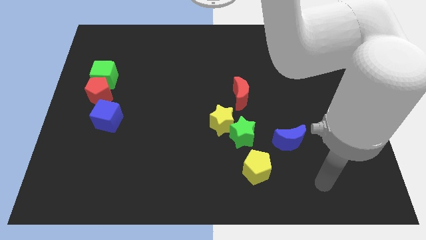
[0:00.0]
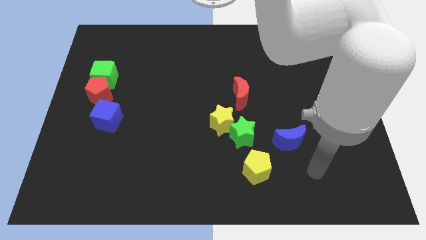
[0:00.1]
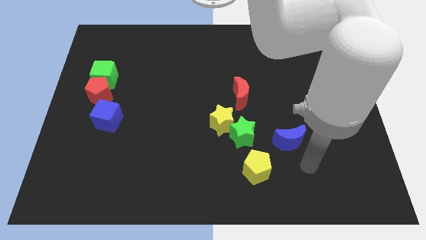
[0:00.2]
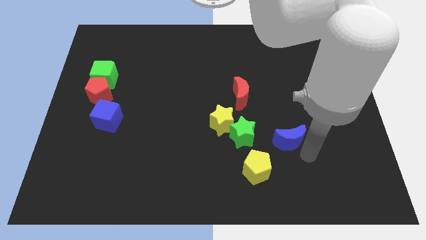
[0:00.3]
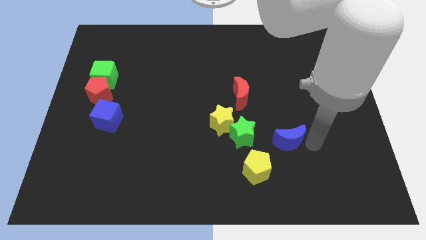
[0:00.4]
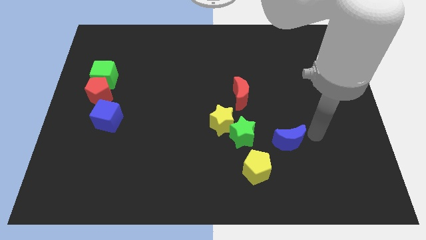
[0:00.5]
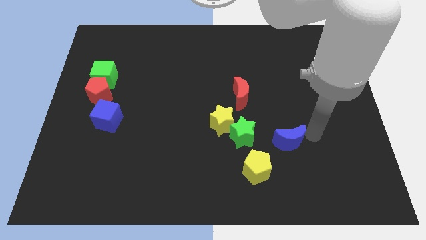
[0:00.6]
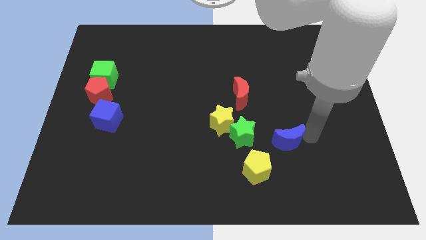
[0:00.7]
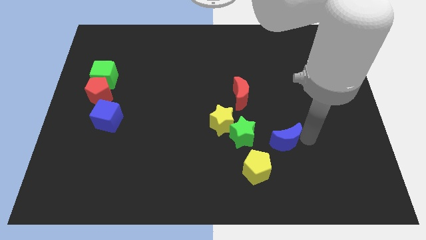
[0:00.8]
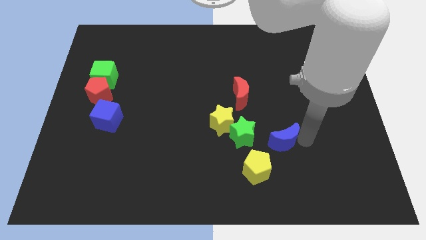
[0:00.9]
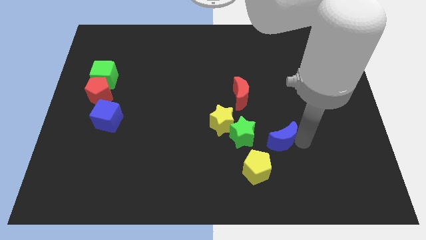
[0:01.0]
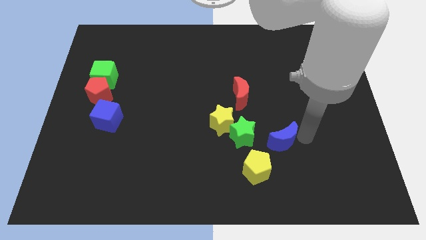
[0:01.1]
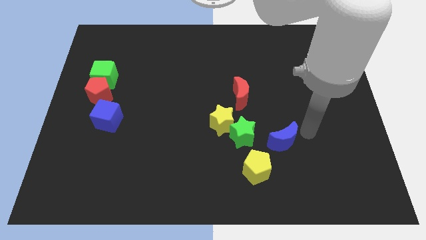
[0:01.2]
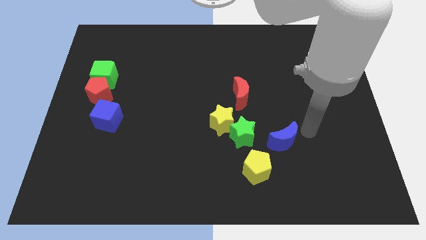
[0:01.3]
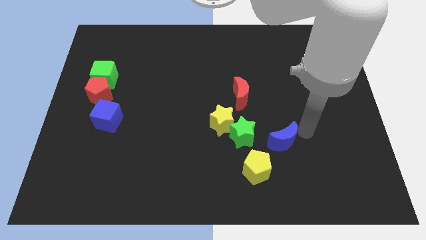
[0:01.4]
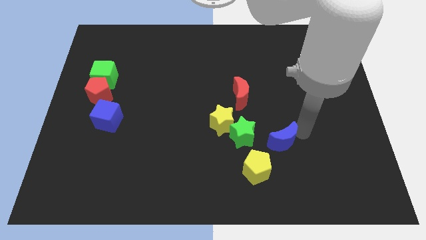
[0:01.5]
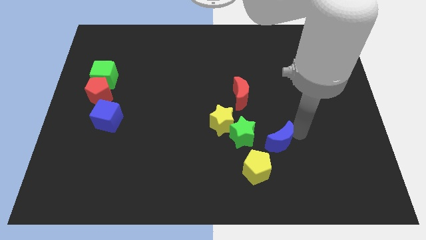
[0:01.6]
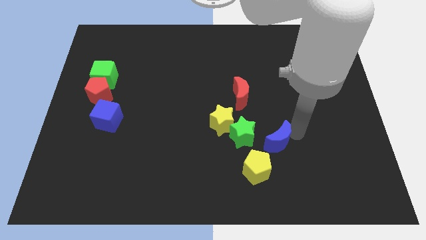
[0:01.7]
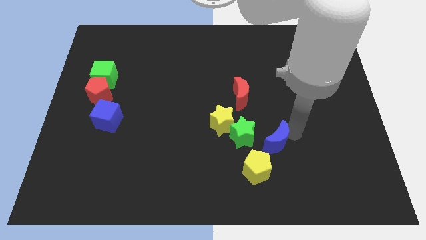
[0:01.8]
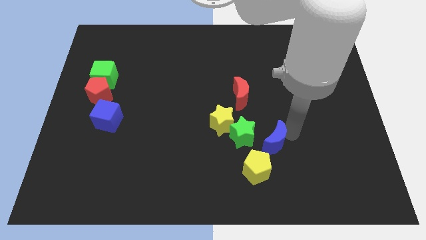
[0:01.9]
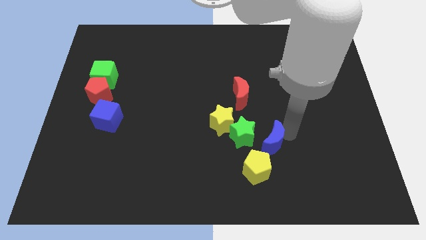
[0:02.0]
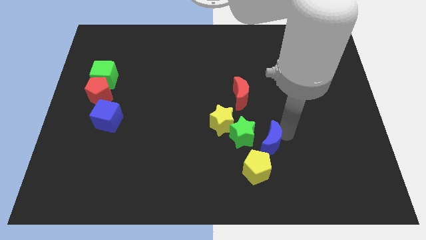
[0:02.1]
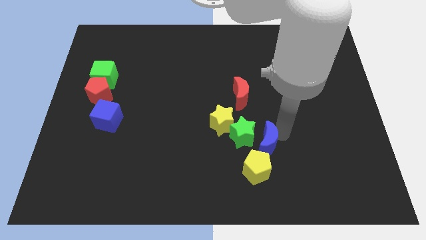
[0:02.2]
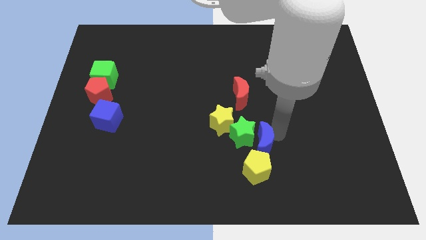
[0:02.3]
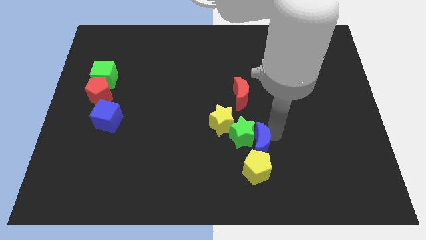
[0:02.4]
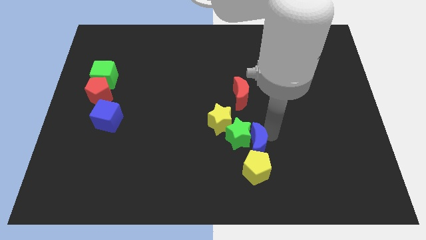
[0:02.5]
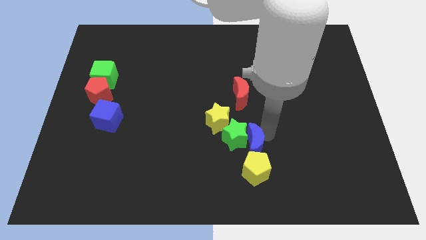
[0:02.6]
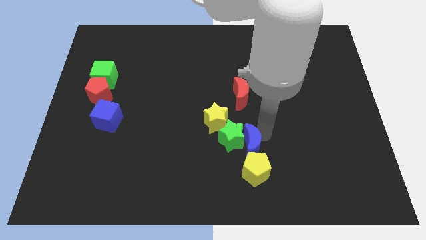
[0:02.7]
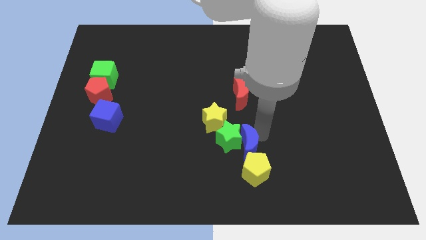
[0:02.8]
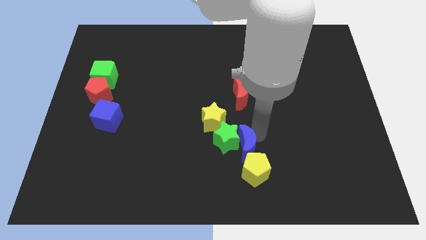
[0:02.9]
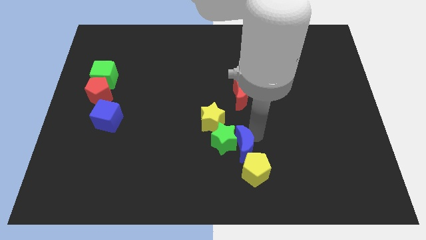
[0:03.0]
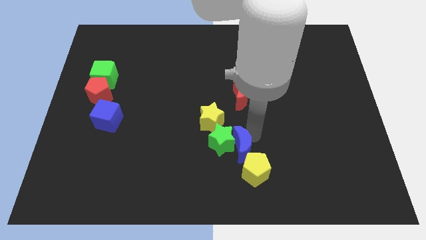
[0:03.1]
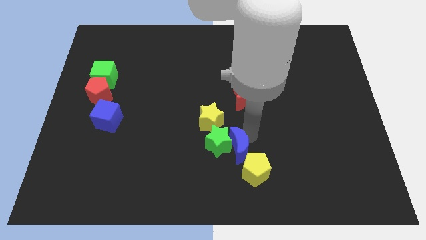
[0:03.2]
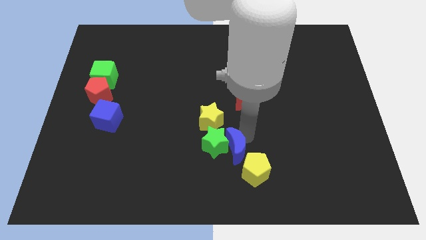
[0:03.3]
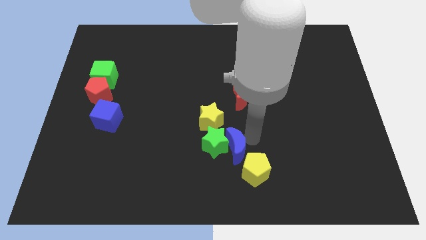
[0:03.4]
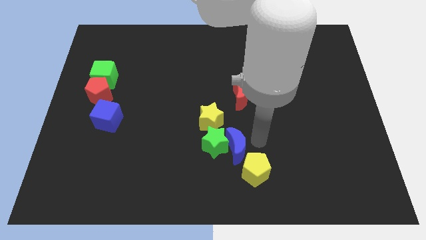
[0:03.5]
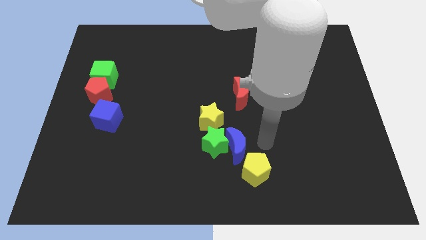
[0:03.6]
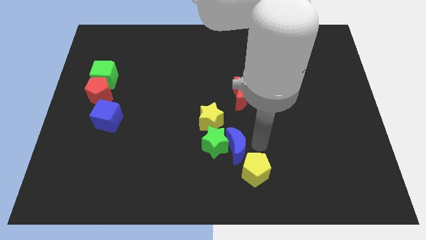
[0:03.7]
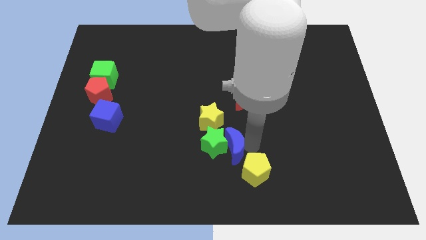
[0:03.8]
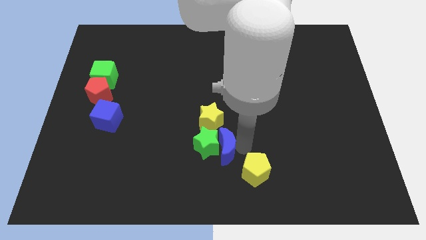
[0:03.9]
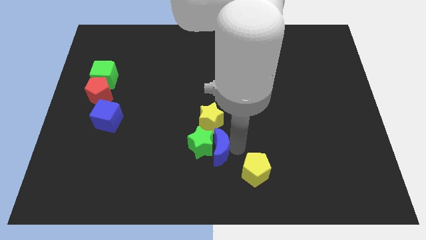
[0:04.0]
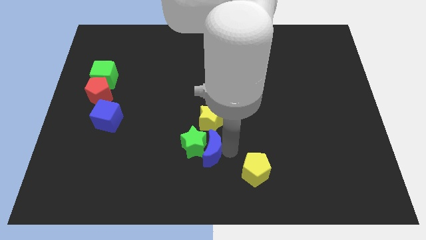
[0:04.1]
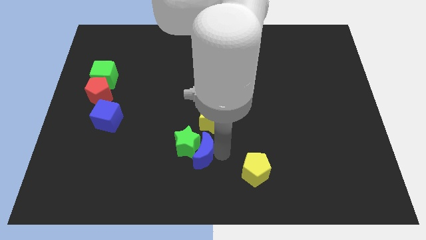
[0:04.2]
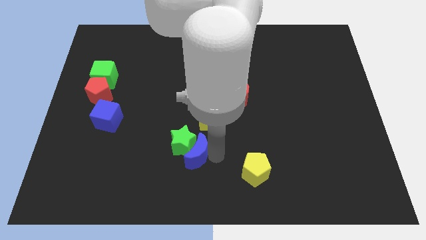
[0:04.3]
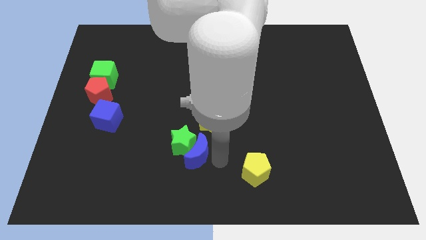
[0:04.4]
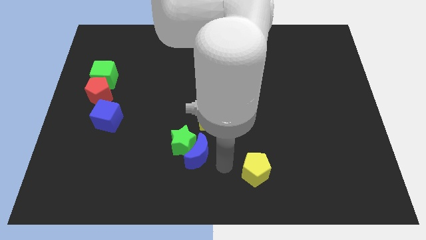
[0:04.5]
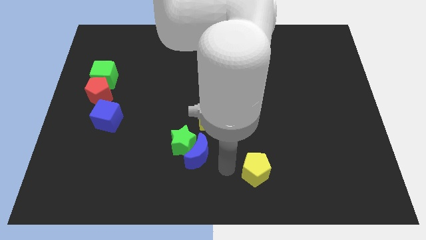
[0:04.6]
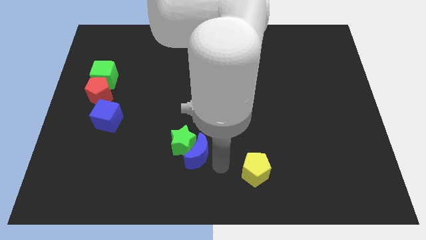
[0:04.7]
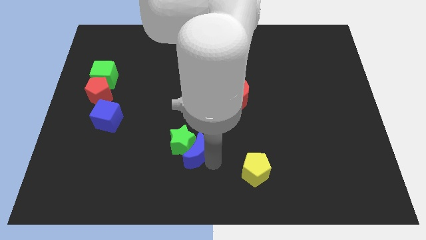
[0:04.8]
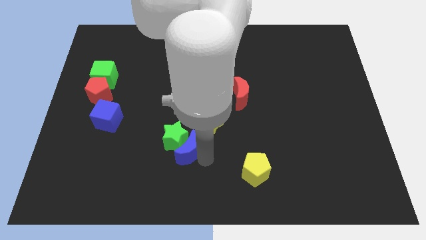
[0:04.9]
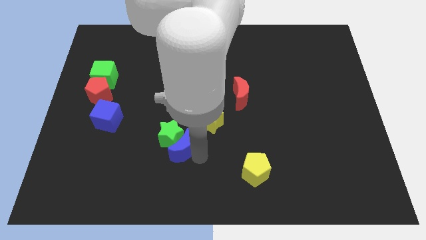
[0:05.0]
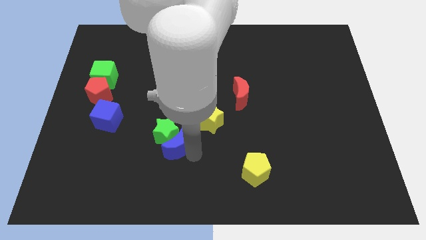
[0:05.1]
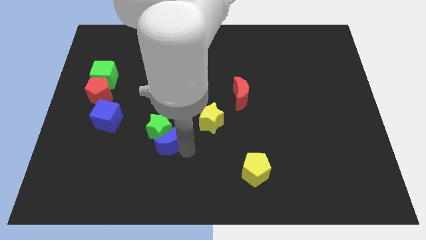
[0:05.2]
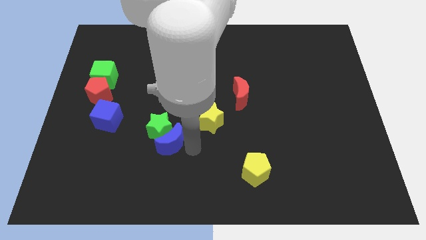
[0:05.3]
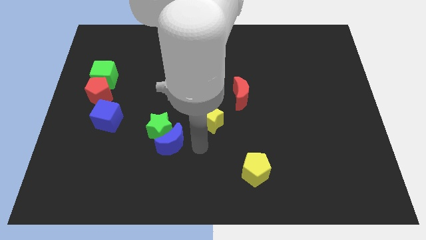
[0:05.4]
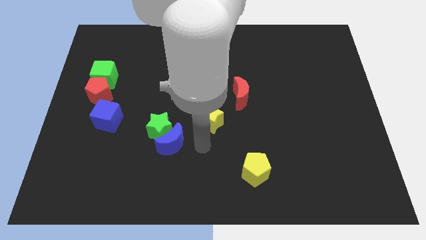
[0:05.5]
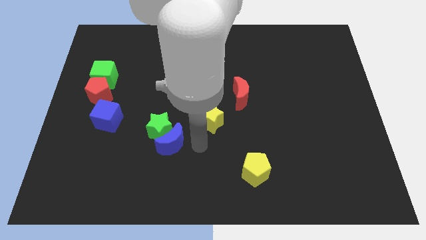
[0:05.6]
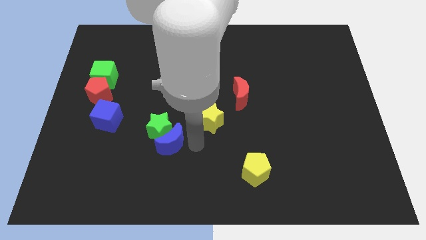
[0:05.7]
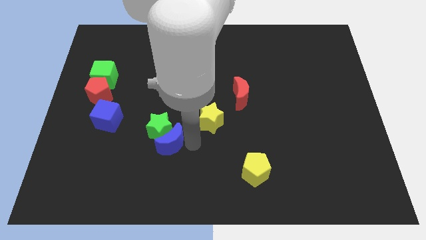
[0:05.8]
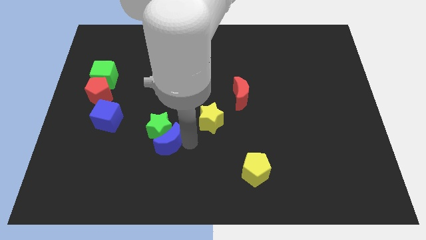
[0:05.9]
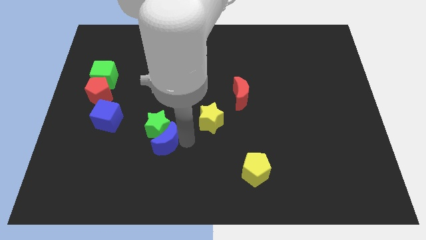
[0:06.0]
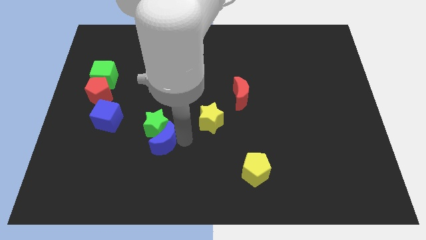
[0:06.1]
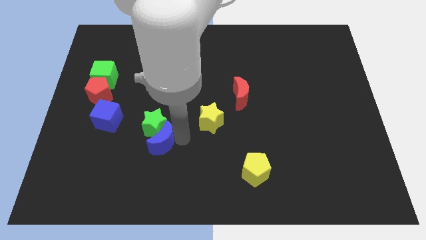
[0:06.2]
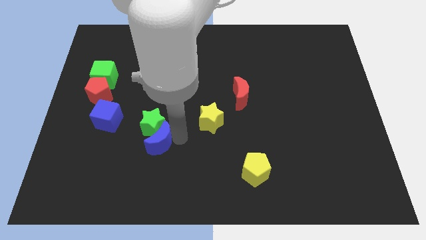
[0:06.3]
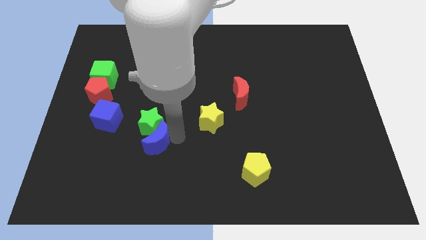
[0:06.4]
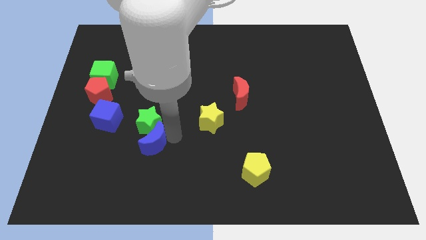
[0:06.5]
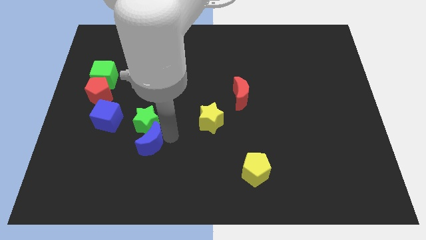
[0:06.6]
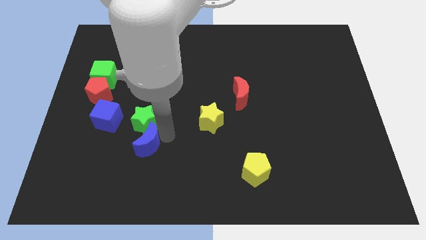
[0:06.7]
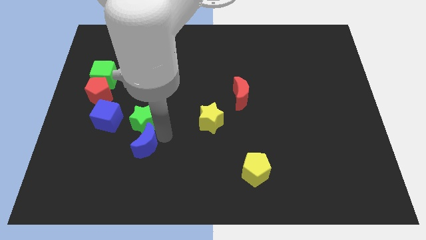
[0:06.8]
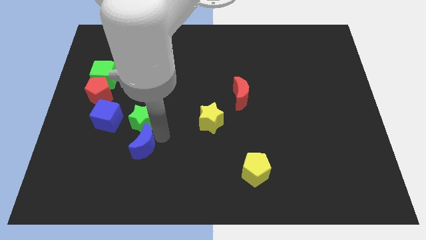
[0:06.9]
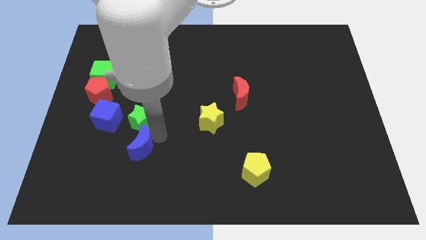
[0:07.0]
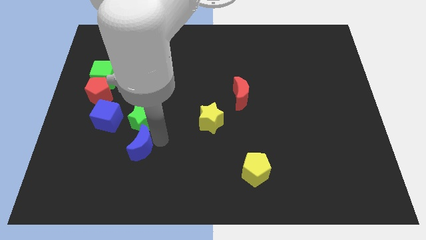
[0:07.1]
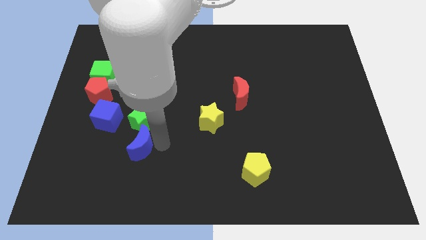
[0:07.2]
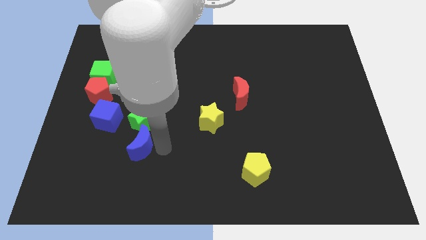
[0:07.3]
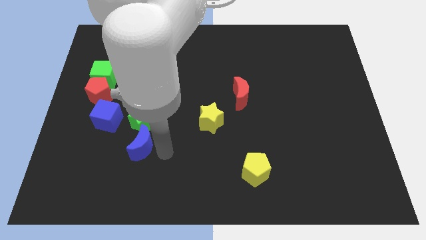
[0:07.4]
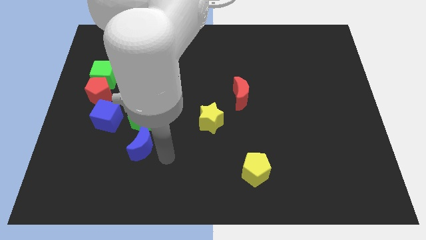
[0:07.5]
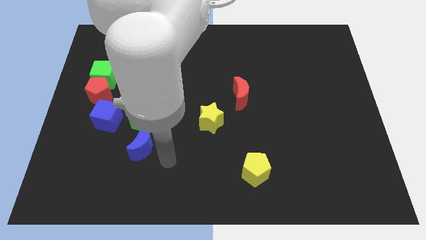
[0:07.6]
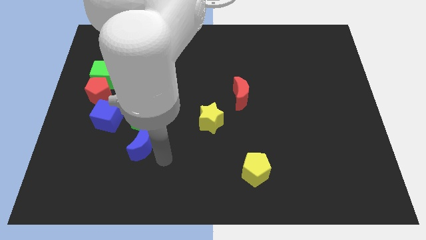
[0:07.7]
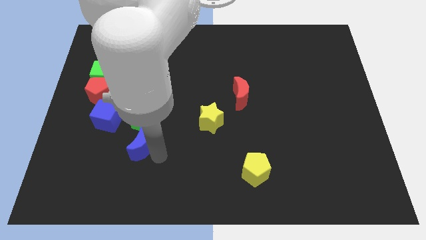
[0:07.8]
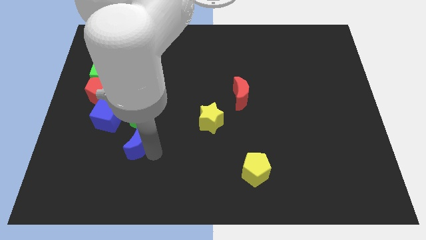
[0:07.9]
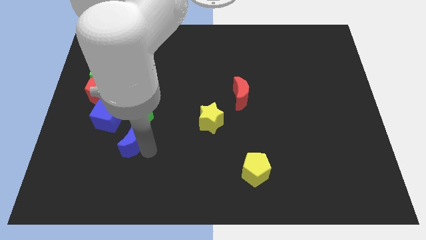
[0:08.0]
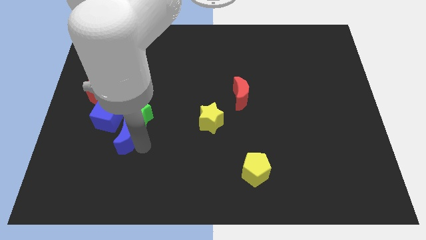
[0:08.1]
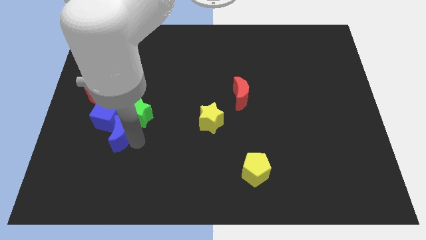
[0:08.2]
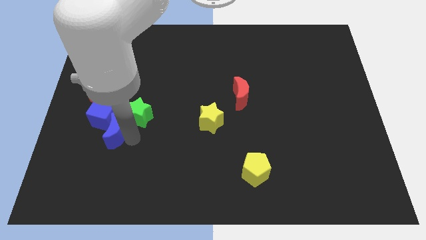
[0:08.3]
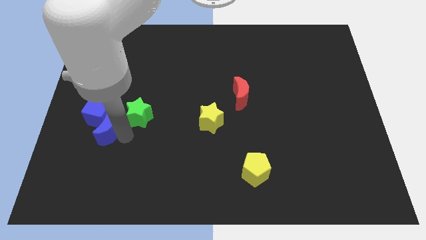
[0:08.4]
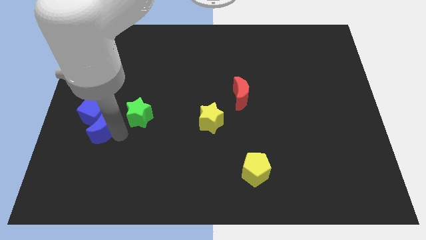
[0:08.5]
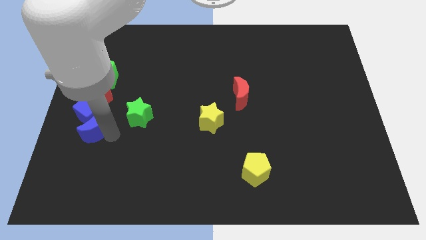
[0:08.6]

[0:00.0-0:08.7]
put the blue moon below the green cube
